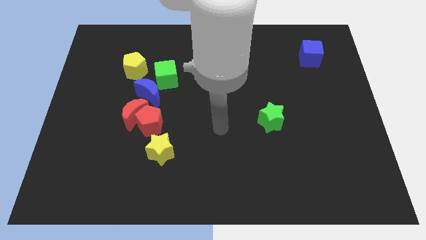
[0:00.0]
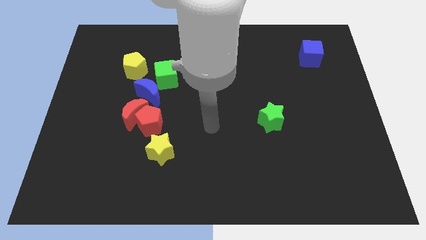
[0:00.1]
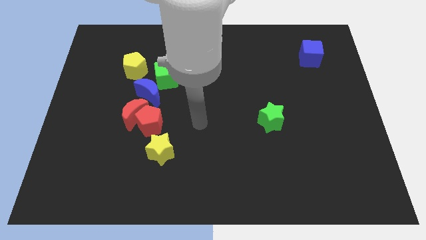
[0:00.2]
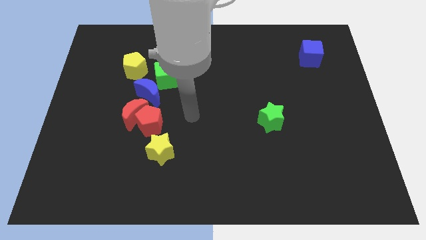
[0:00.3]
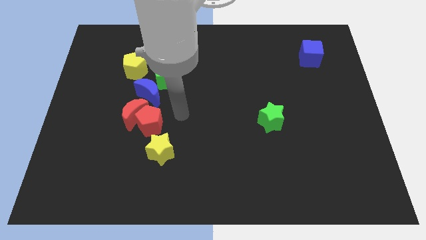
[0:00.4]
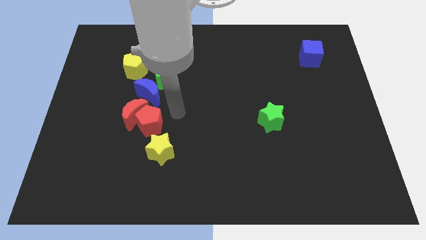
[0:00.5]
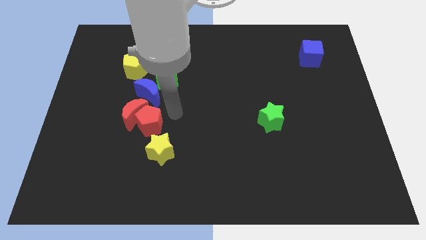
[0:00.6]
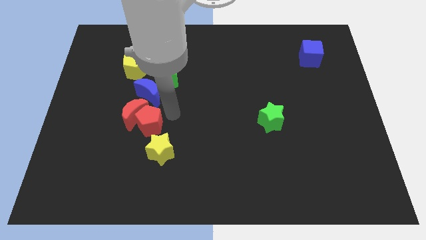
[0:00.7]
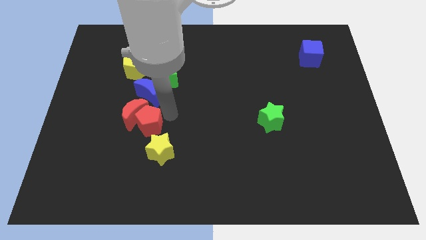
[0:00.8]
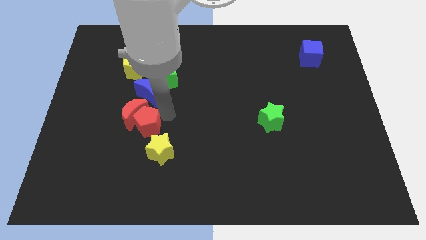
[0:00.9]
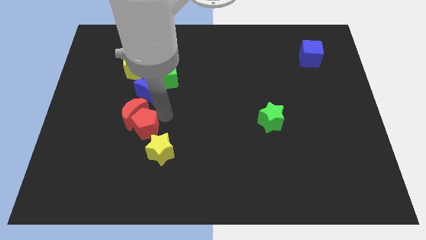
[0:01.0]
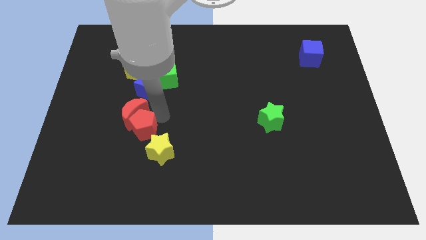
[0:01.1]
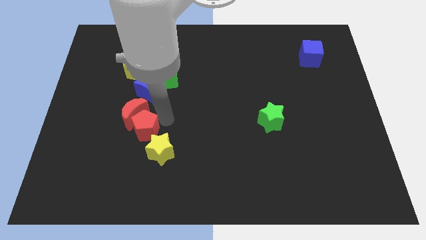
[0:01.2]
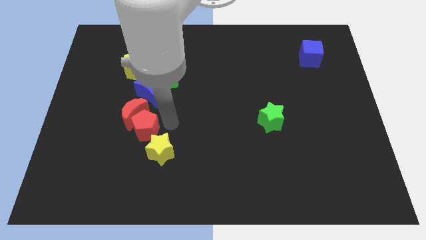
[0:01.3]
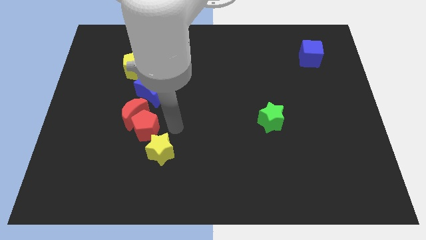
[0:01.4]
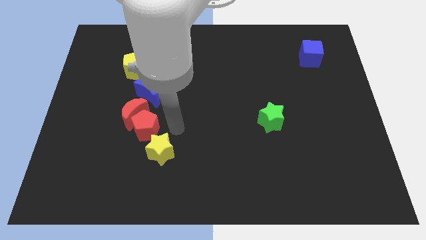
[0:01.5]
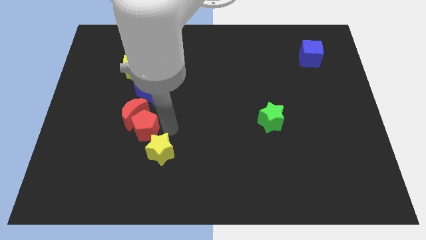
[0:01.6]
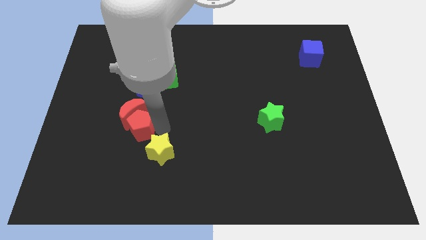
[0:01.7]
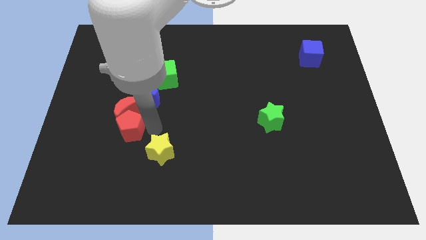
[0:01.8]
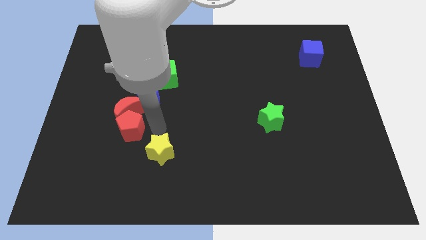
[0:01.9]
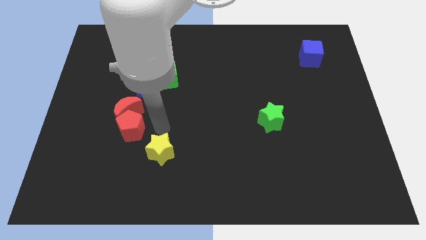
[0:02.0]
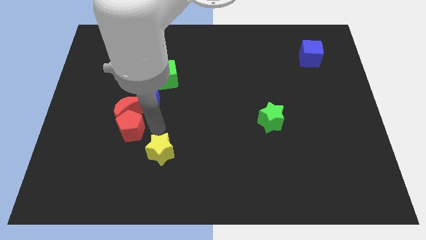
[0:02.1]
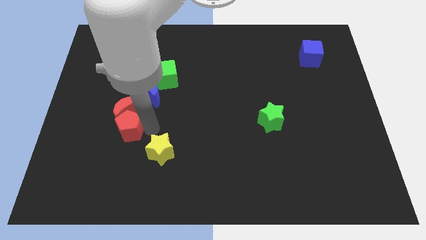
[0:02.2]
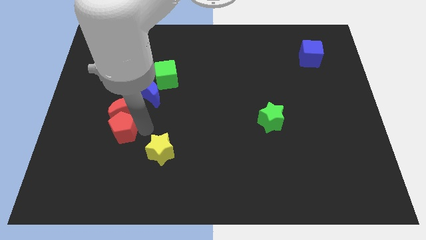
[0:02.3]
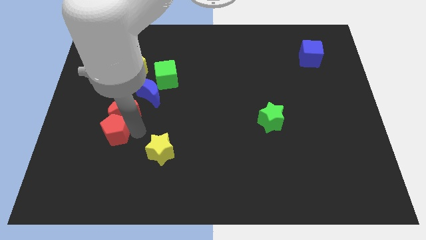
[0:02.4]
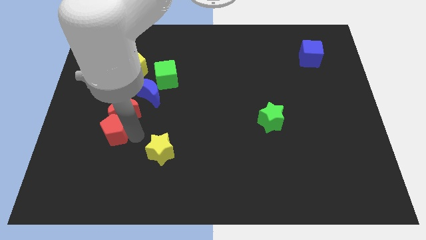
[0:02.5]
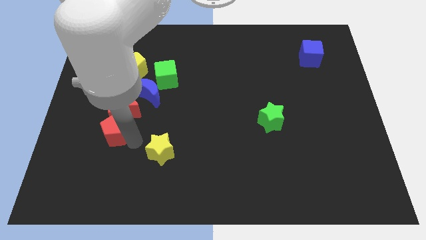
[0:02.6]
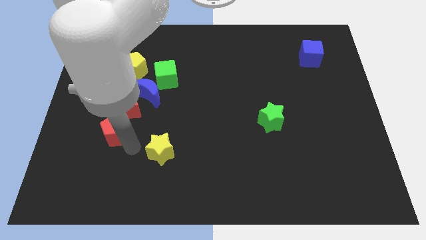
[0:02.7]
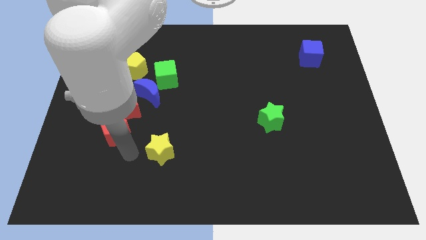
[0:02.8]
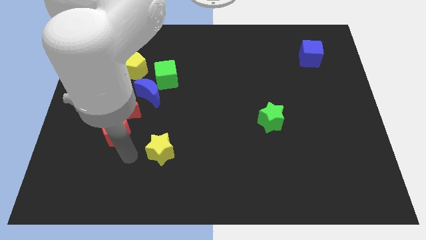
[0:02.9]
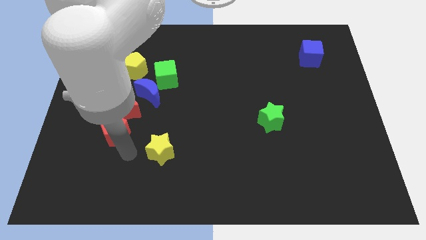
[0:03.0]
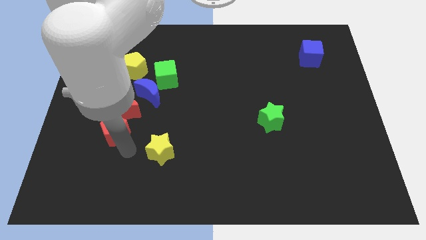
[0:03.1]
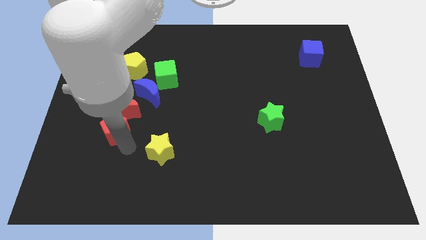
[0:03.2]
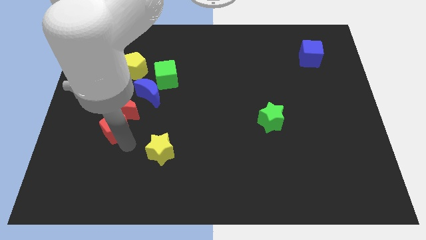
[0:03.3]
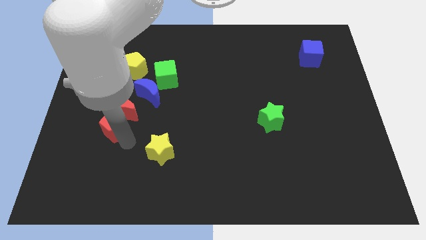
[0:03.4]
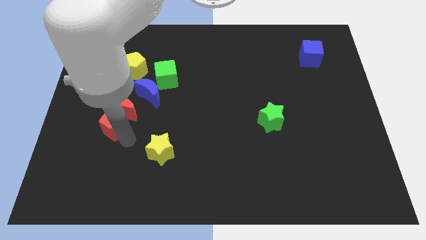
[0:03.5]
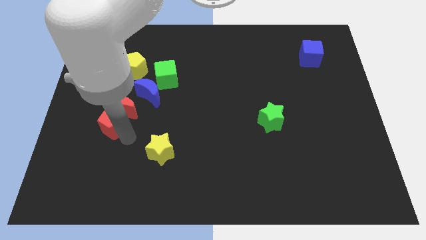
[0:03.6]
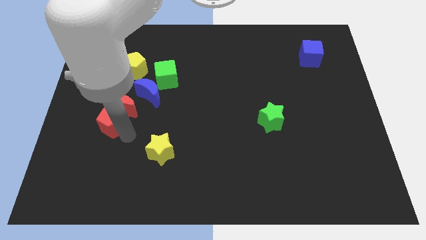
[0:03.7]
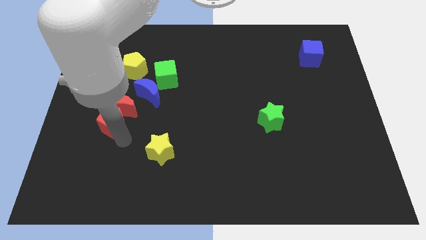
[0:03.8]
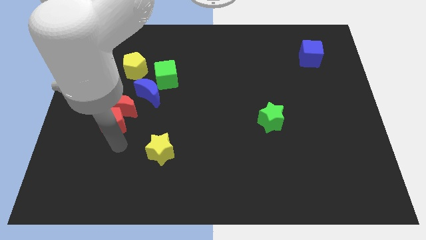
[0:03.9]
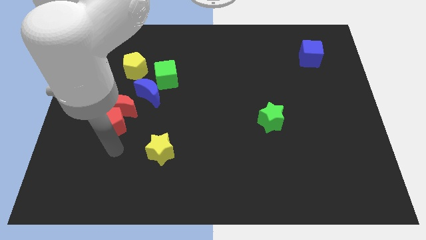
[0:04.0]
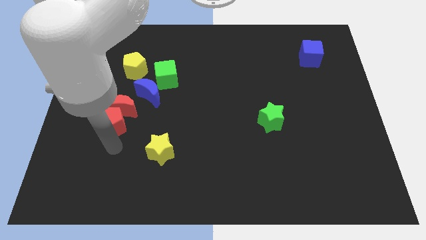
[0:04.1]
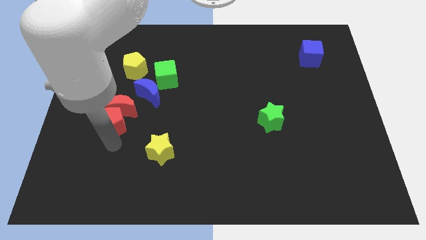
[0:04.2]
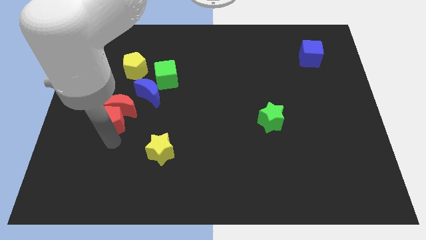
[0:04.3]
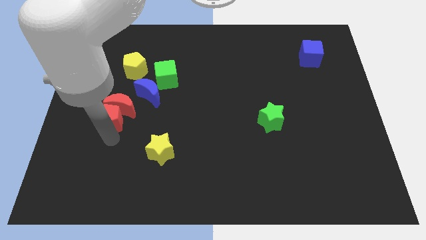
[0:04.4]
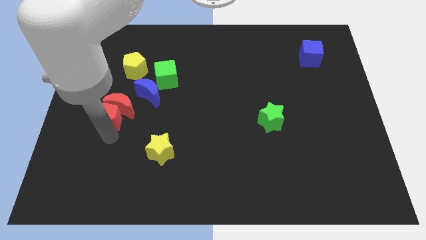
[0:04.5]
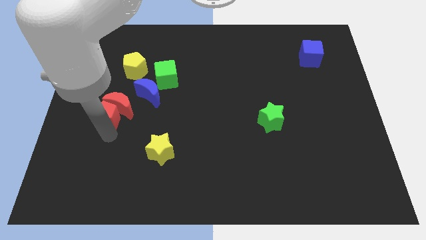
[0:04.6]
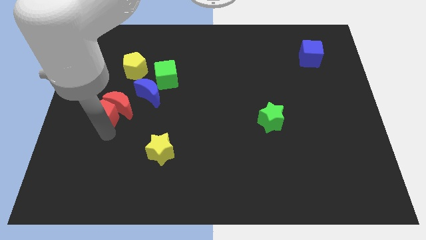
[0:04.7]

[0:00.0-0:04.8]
slightly move the red pentagon diagonally upwards and left

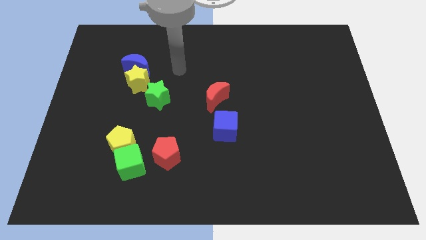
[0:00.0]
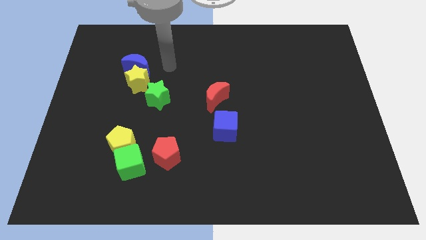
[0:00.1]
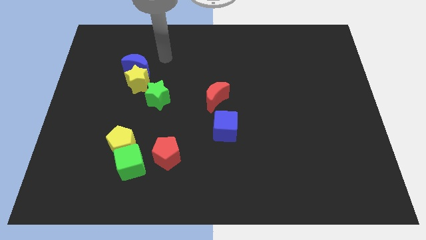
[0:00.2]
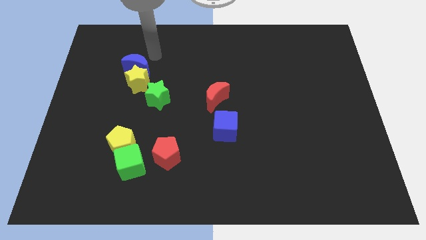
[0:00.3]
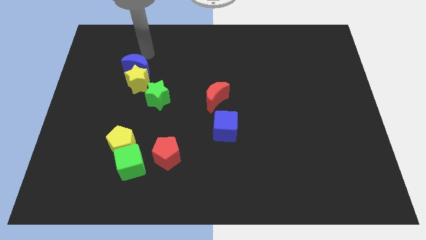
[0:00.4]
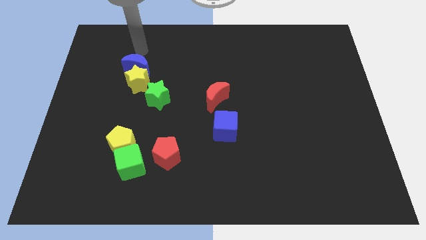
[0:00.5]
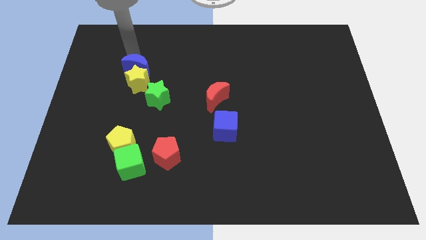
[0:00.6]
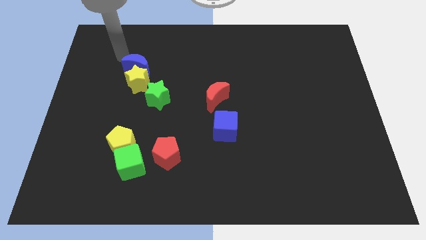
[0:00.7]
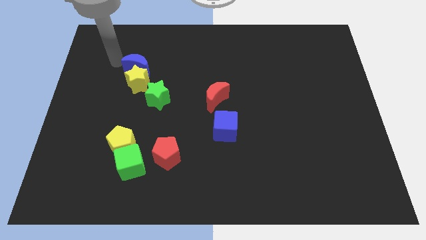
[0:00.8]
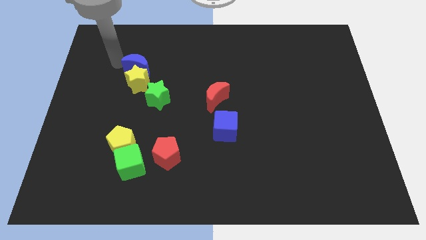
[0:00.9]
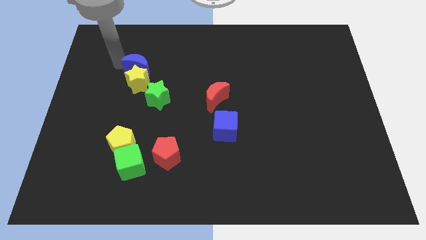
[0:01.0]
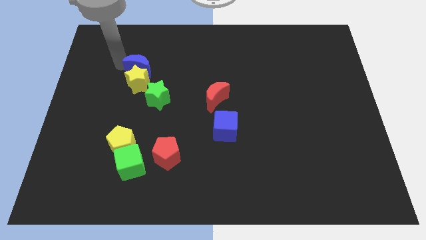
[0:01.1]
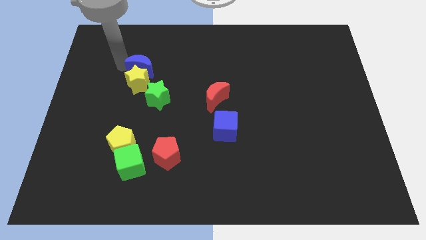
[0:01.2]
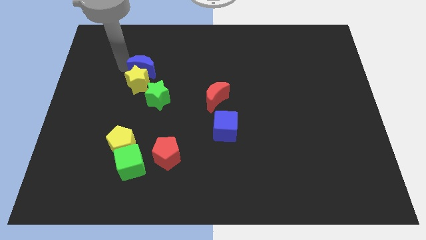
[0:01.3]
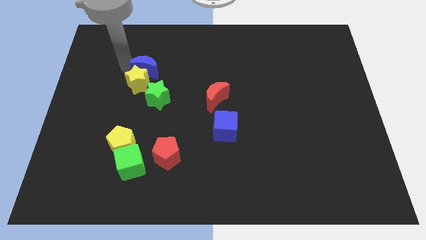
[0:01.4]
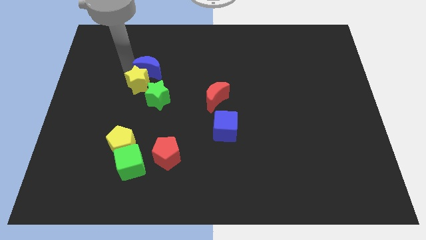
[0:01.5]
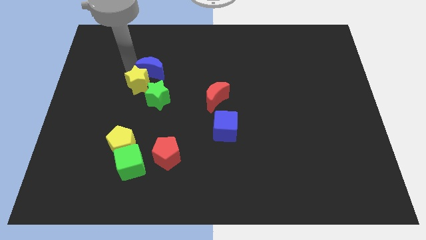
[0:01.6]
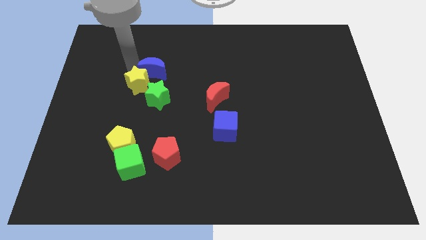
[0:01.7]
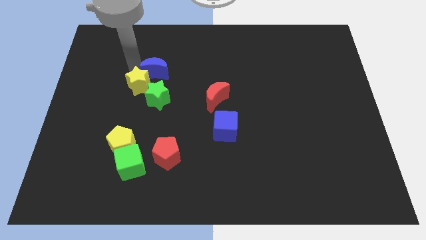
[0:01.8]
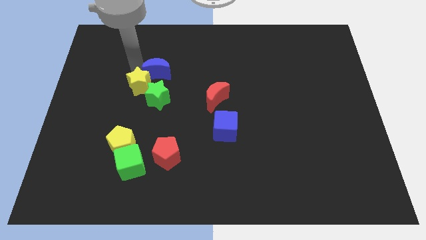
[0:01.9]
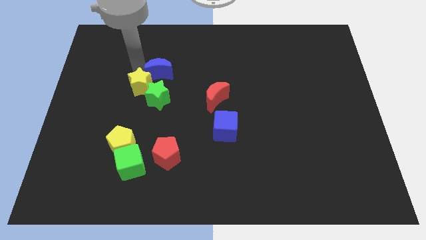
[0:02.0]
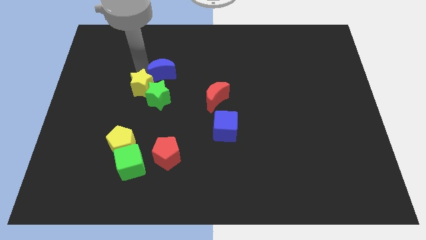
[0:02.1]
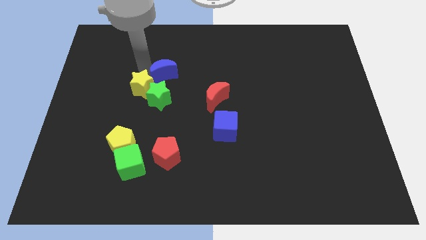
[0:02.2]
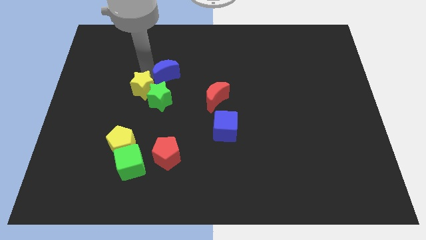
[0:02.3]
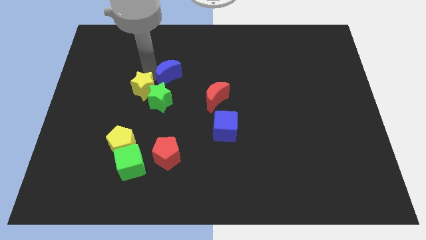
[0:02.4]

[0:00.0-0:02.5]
push the blue moon diagonally downwards and to the right a bit

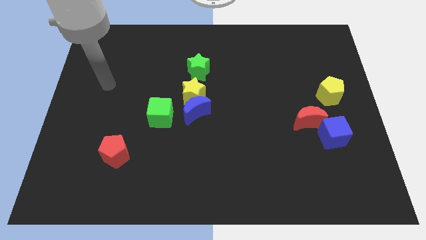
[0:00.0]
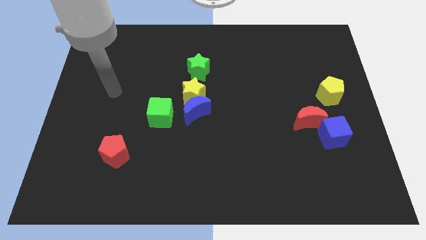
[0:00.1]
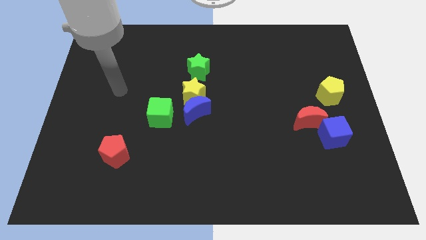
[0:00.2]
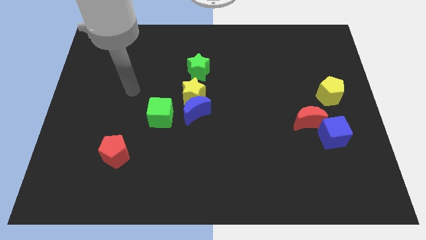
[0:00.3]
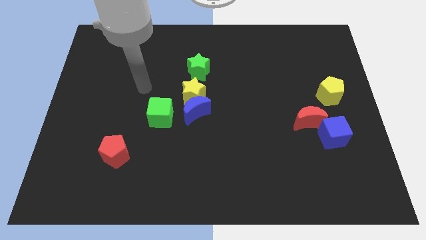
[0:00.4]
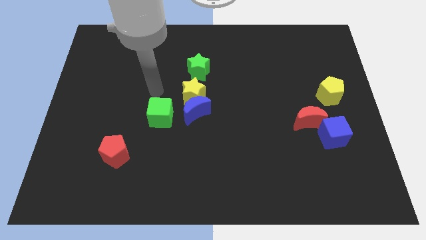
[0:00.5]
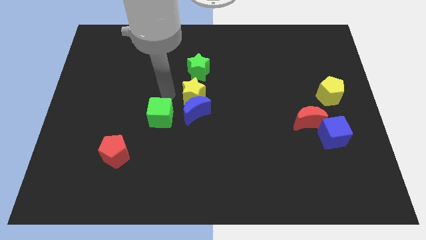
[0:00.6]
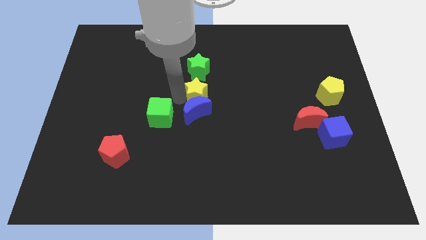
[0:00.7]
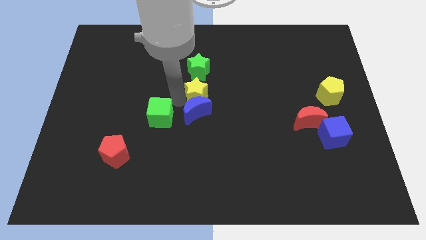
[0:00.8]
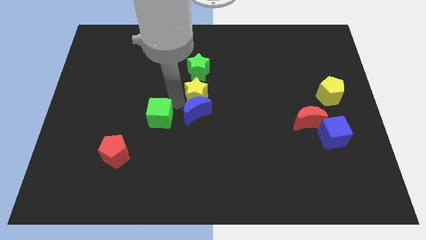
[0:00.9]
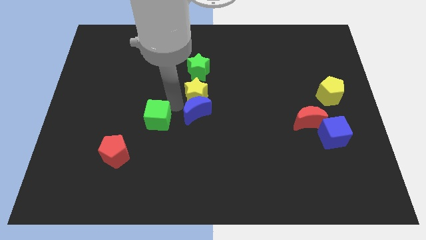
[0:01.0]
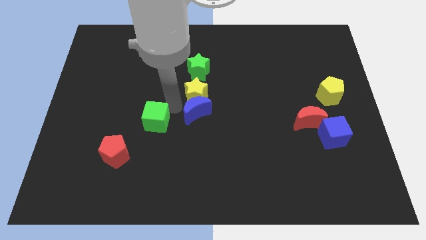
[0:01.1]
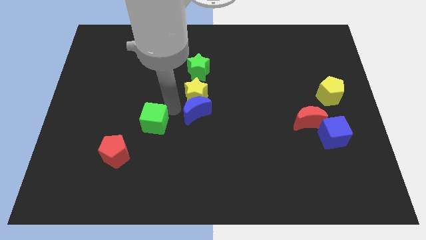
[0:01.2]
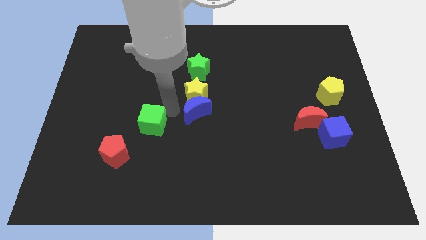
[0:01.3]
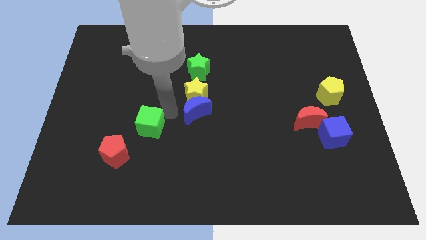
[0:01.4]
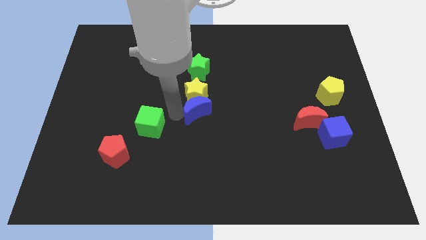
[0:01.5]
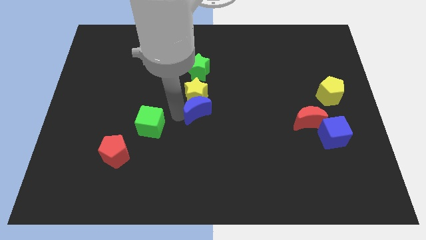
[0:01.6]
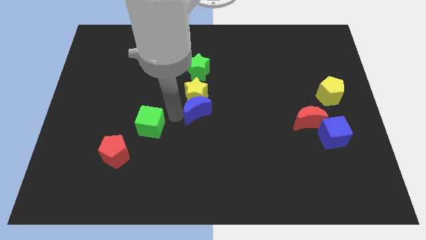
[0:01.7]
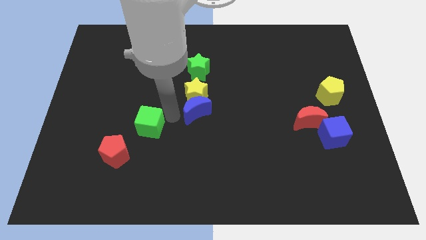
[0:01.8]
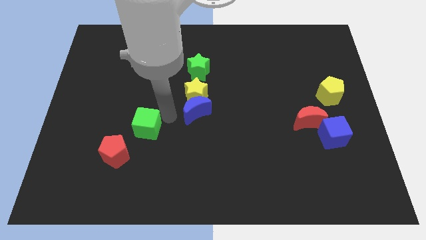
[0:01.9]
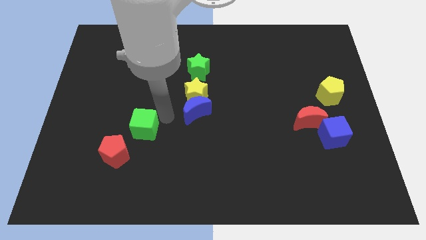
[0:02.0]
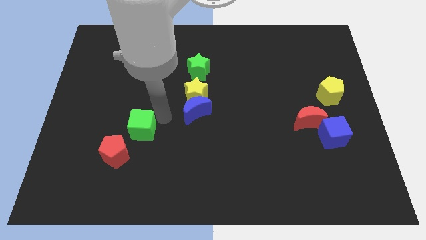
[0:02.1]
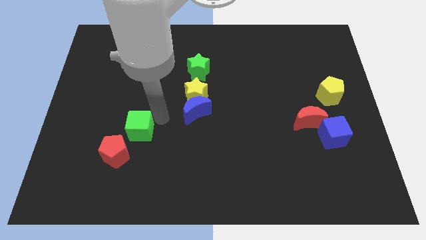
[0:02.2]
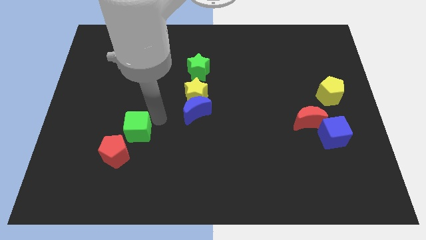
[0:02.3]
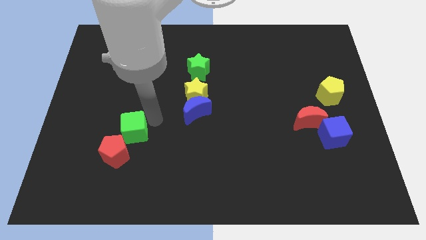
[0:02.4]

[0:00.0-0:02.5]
push the green cube somewhat diagonally downwards and left
